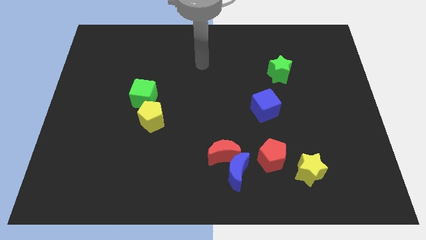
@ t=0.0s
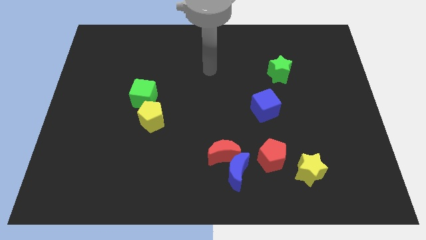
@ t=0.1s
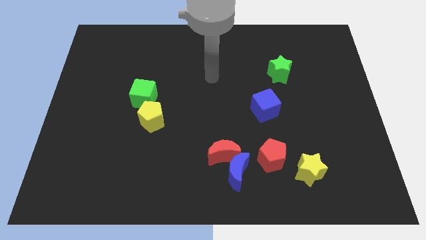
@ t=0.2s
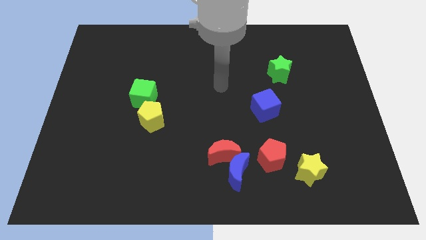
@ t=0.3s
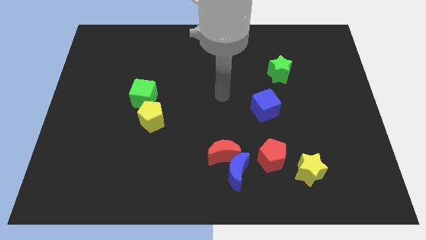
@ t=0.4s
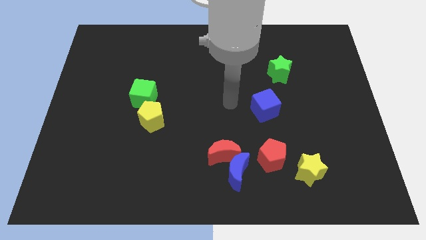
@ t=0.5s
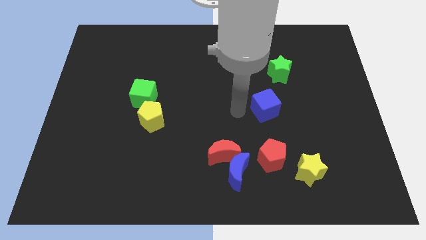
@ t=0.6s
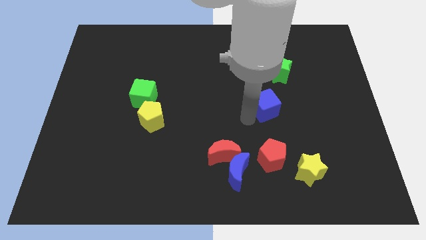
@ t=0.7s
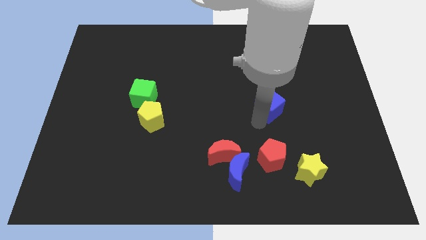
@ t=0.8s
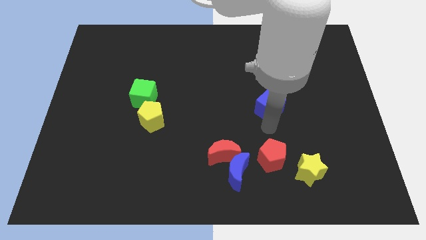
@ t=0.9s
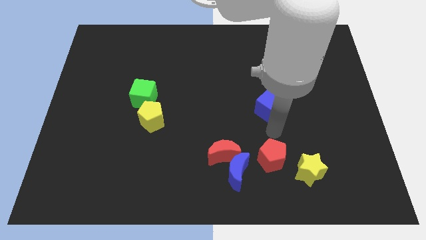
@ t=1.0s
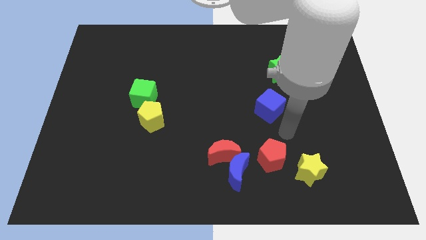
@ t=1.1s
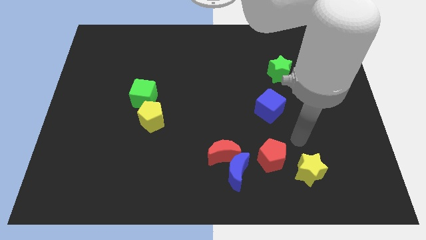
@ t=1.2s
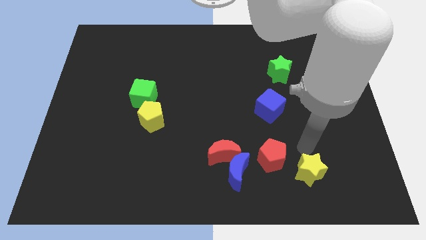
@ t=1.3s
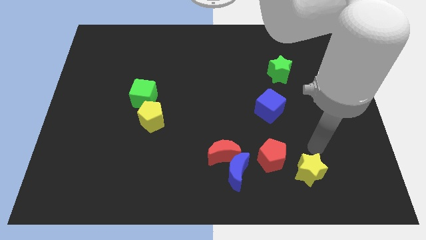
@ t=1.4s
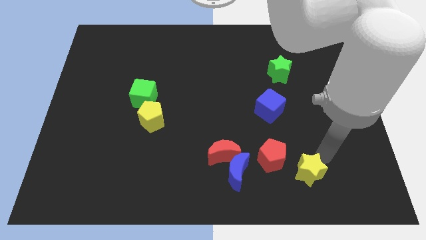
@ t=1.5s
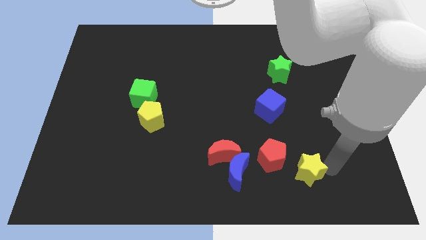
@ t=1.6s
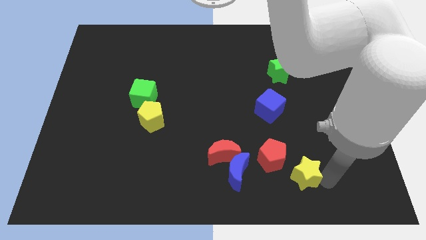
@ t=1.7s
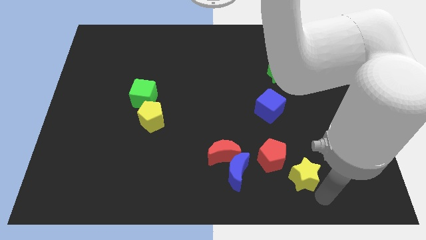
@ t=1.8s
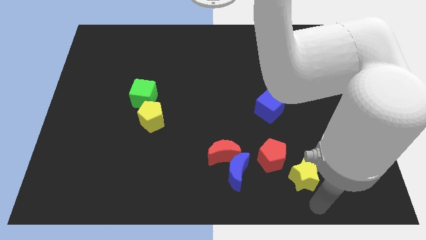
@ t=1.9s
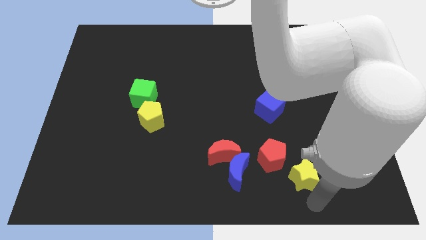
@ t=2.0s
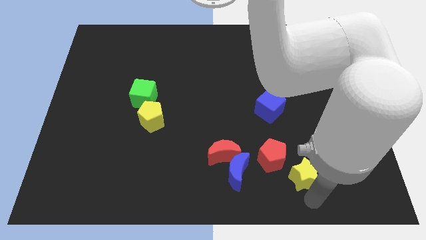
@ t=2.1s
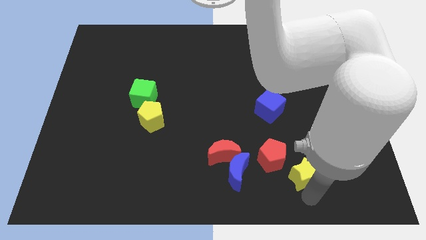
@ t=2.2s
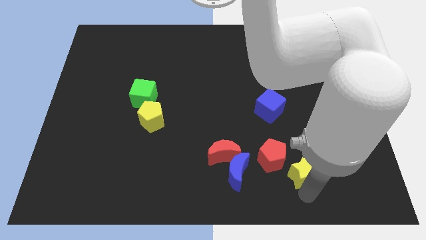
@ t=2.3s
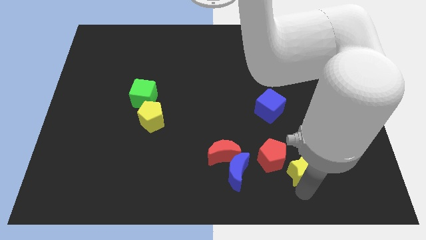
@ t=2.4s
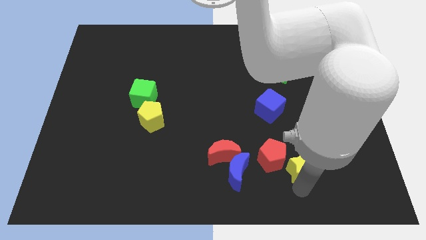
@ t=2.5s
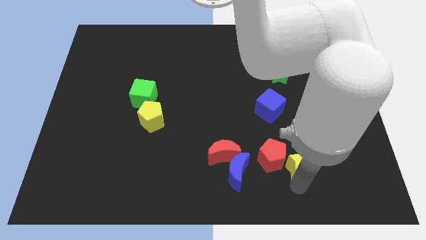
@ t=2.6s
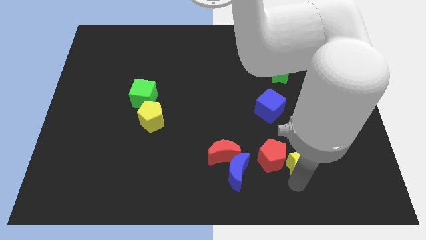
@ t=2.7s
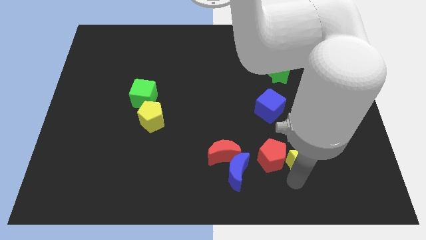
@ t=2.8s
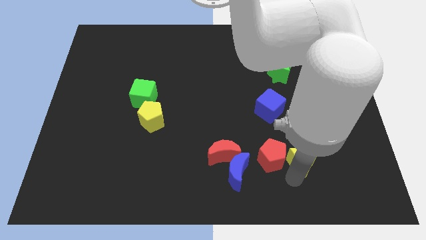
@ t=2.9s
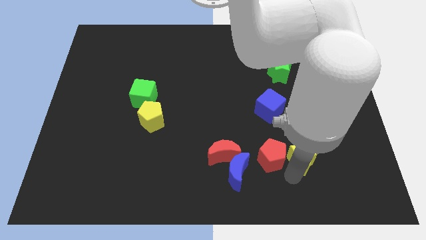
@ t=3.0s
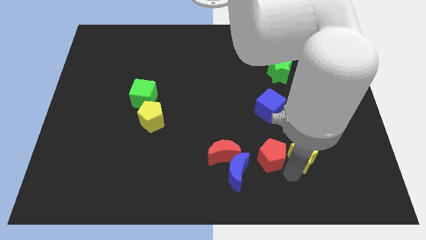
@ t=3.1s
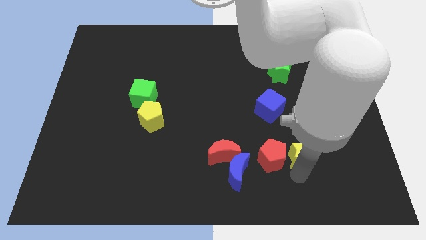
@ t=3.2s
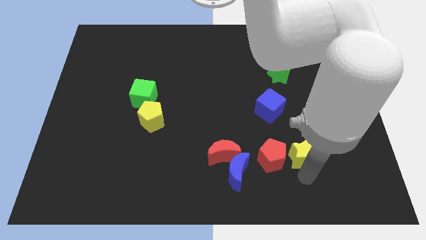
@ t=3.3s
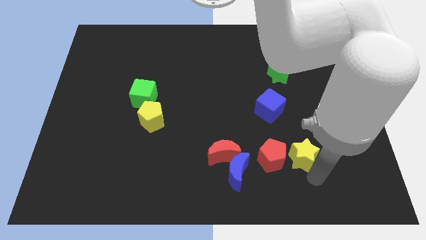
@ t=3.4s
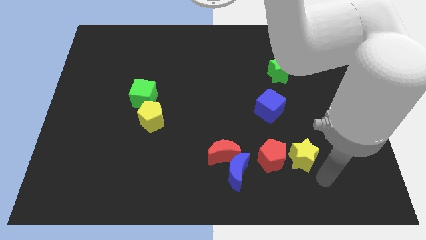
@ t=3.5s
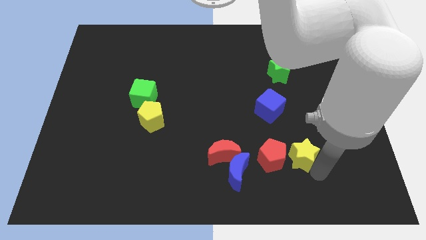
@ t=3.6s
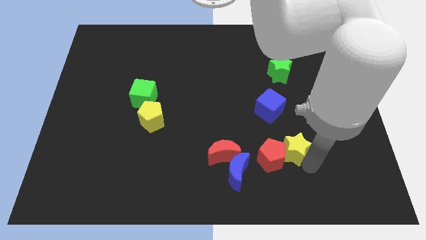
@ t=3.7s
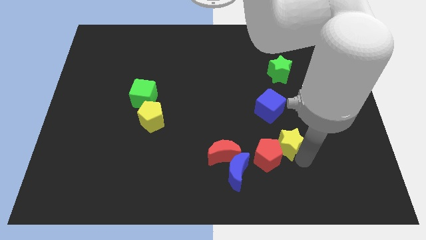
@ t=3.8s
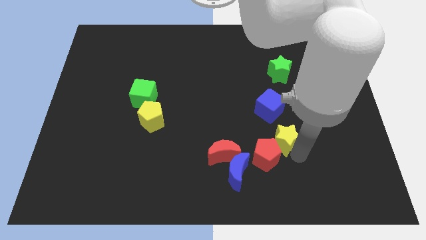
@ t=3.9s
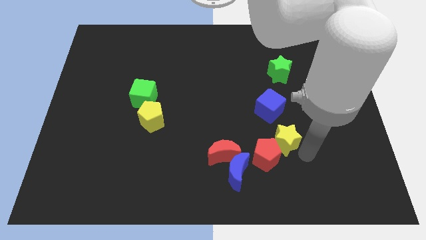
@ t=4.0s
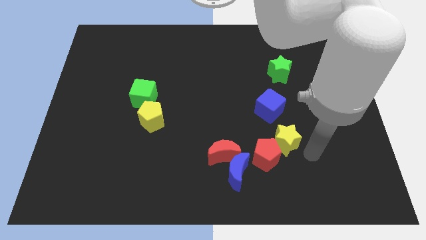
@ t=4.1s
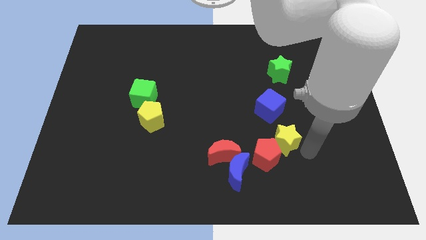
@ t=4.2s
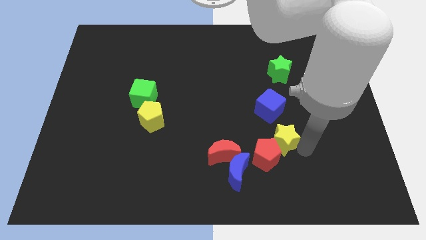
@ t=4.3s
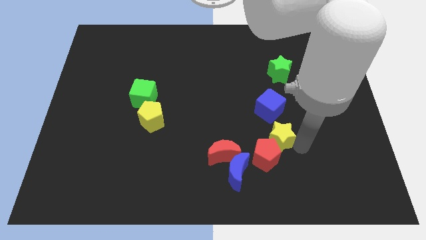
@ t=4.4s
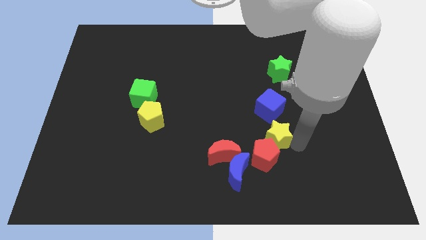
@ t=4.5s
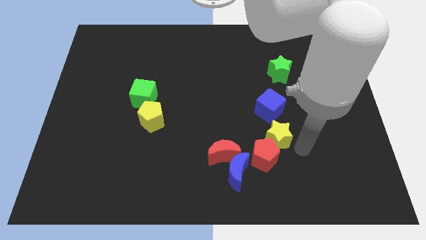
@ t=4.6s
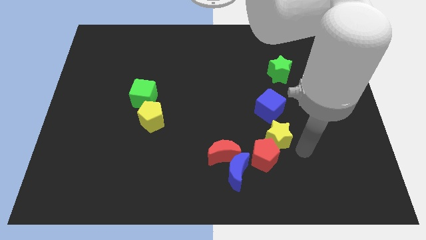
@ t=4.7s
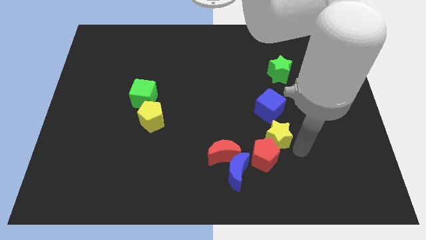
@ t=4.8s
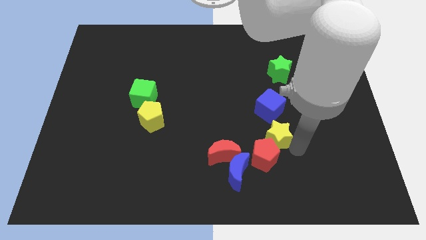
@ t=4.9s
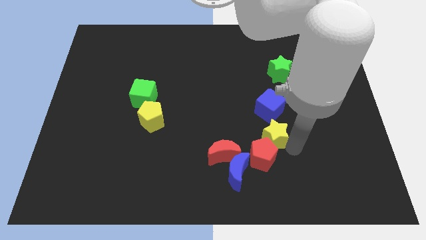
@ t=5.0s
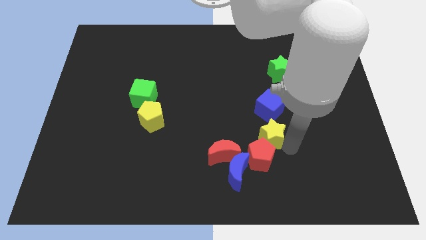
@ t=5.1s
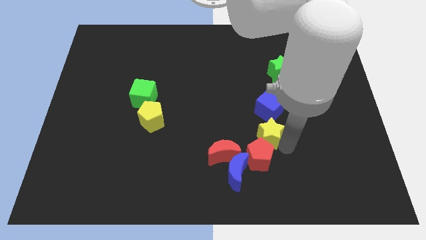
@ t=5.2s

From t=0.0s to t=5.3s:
push the yellow star diagonally down and to the left of the blue cube

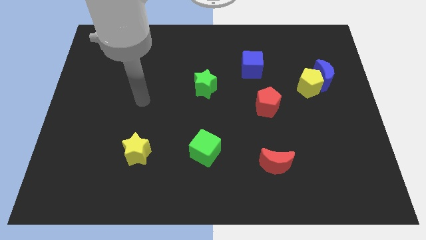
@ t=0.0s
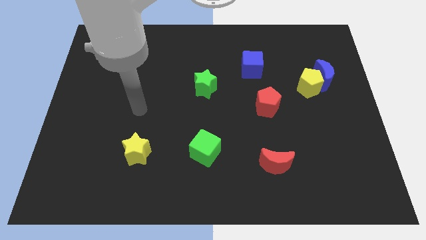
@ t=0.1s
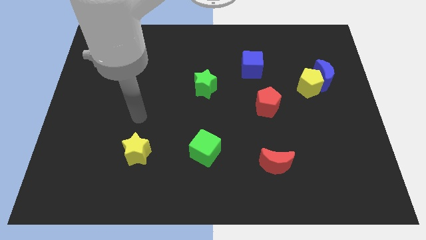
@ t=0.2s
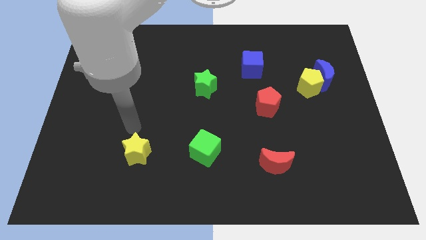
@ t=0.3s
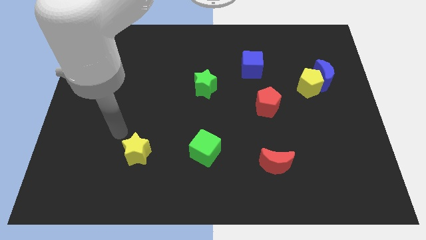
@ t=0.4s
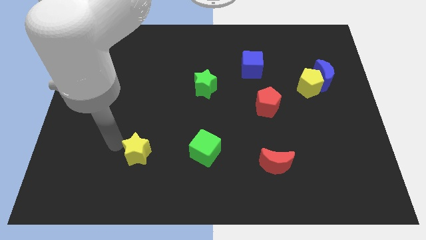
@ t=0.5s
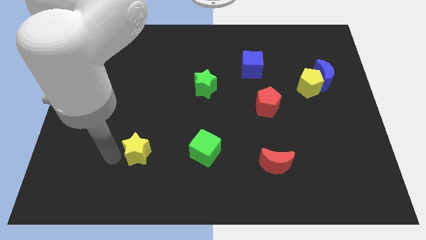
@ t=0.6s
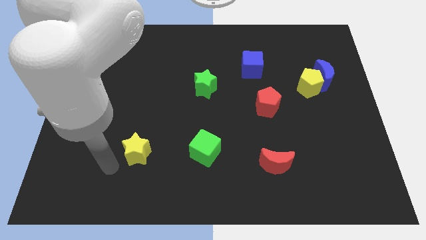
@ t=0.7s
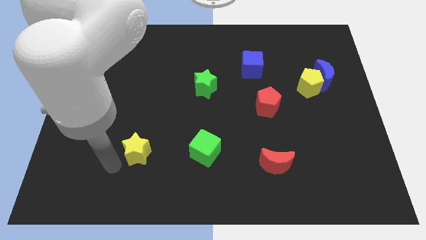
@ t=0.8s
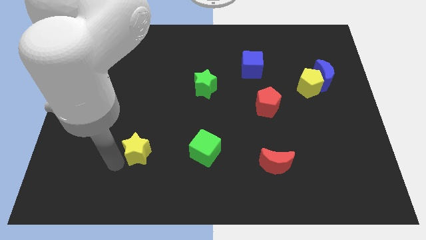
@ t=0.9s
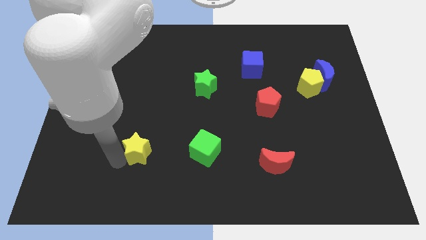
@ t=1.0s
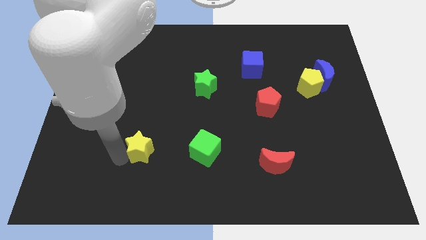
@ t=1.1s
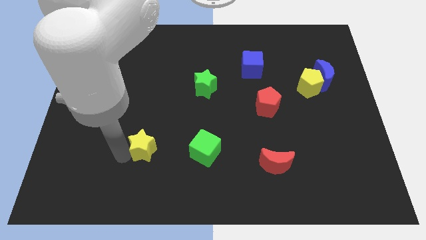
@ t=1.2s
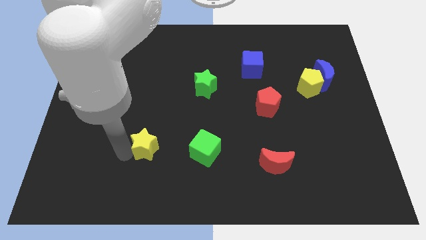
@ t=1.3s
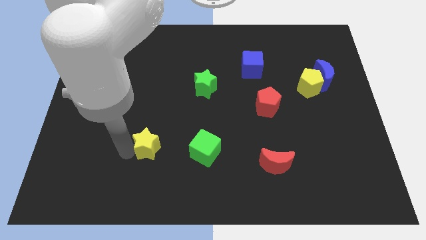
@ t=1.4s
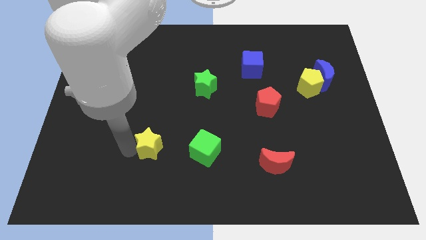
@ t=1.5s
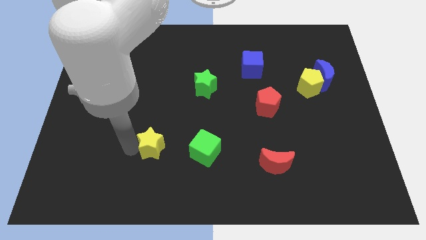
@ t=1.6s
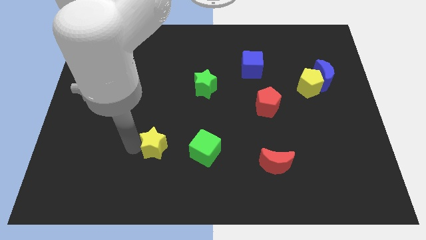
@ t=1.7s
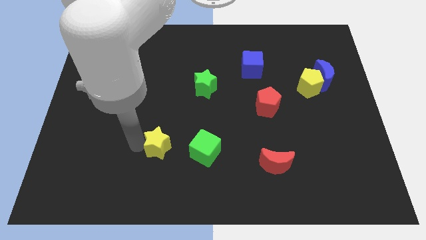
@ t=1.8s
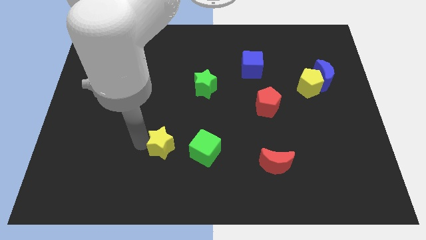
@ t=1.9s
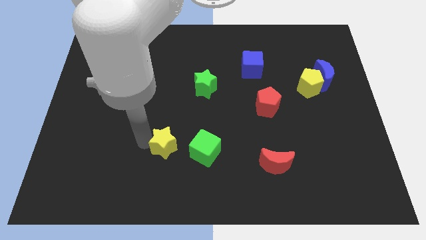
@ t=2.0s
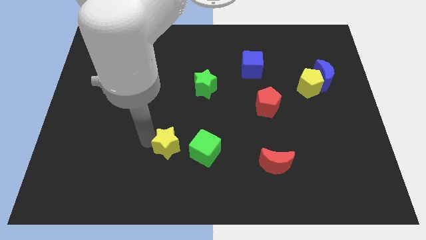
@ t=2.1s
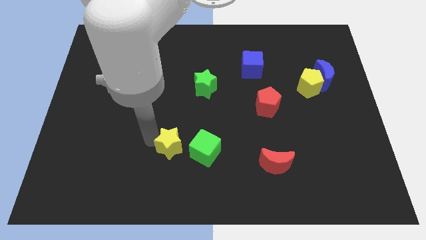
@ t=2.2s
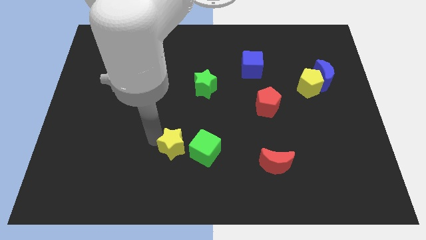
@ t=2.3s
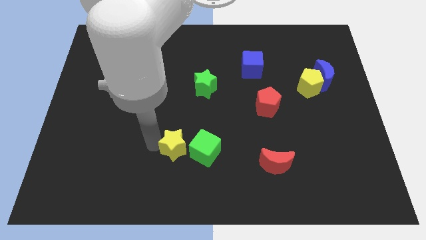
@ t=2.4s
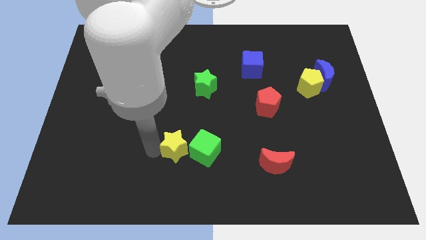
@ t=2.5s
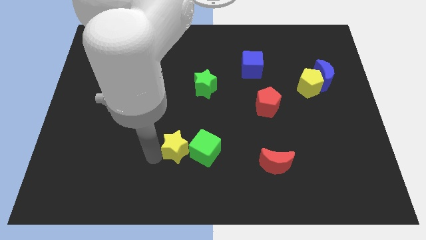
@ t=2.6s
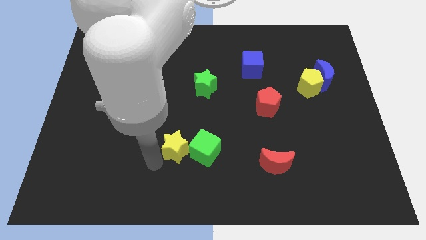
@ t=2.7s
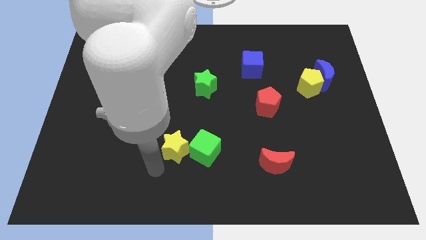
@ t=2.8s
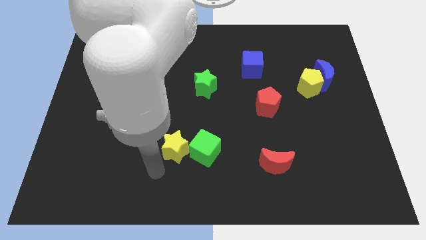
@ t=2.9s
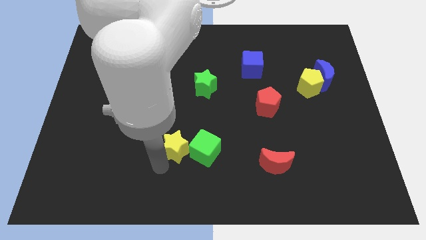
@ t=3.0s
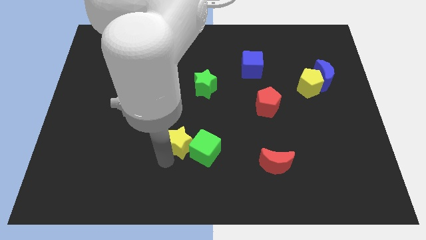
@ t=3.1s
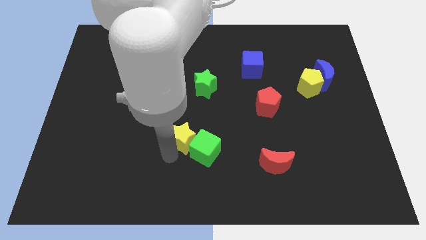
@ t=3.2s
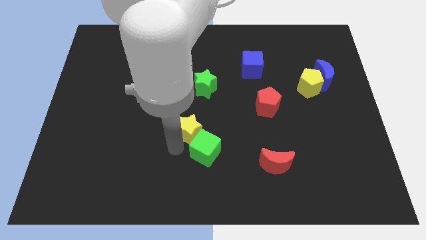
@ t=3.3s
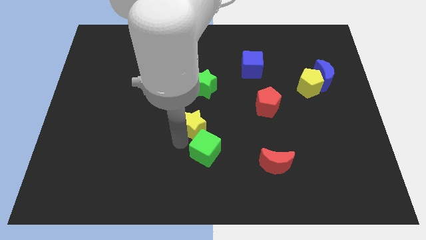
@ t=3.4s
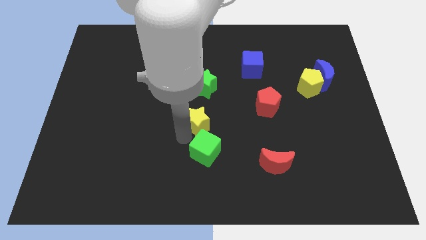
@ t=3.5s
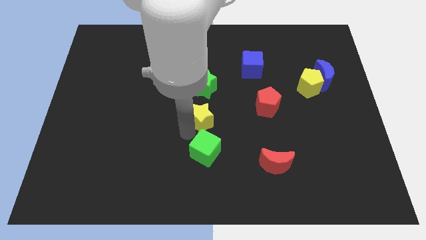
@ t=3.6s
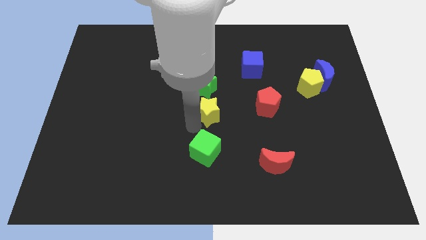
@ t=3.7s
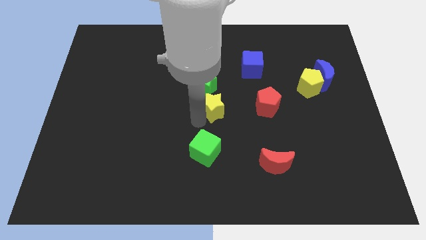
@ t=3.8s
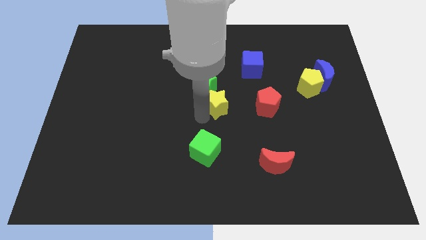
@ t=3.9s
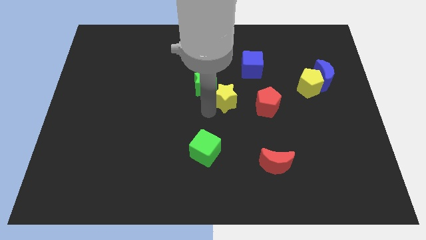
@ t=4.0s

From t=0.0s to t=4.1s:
move the yellow star to the right side of the green star
